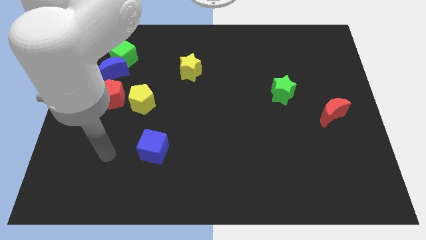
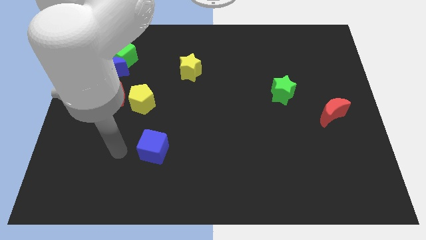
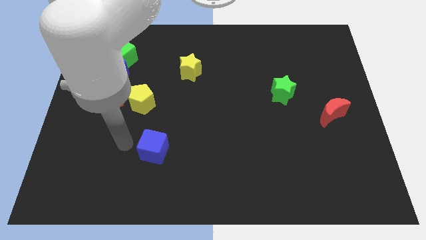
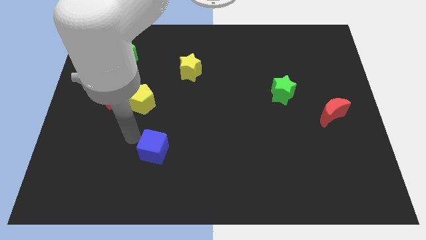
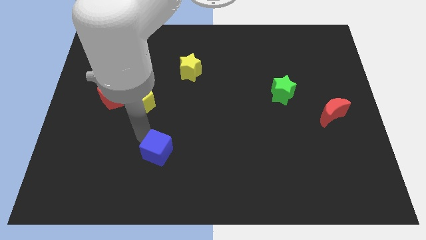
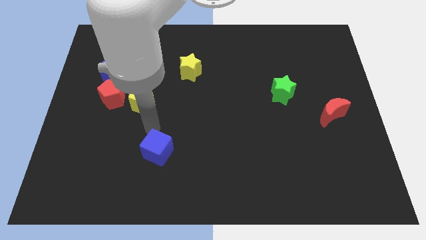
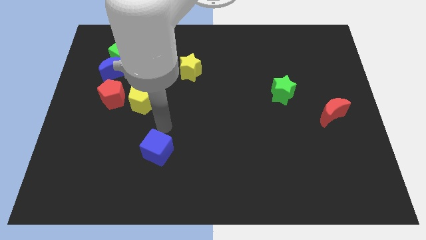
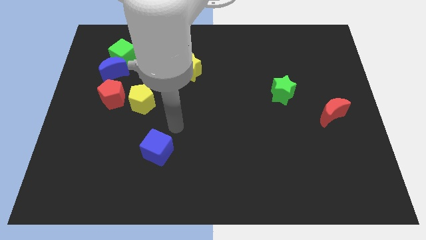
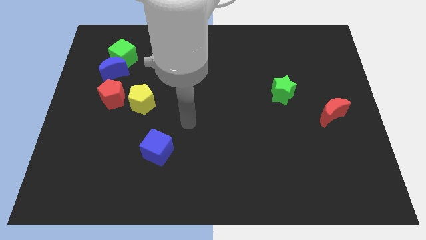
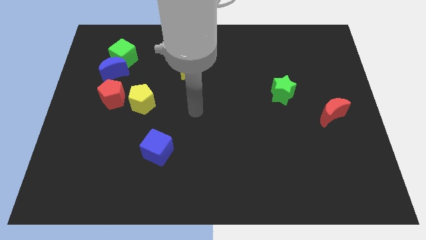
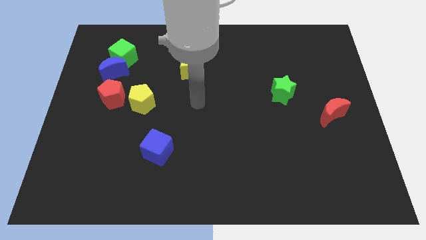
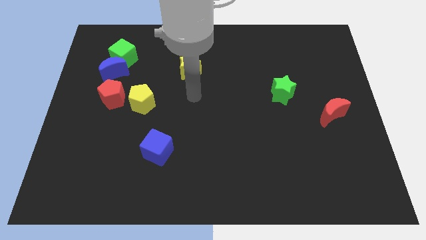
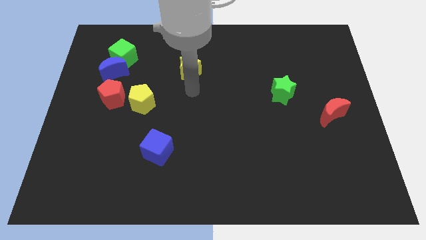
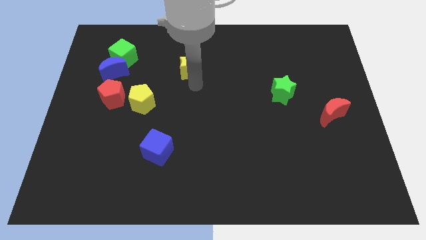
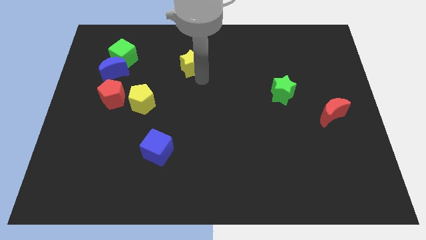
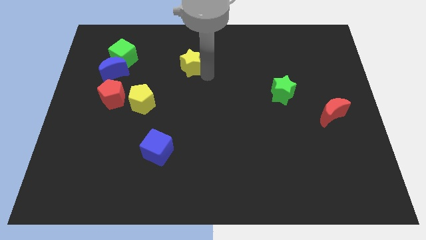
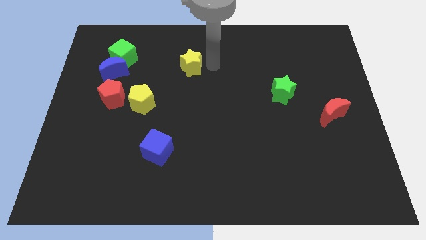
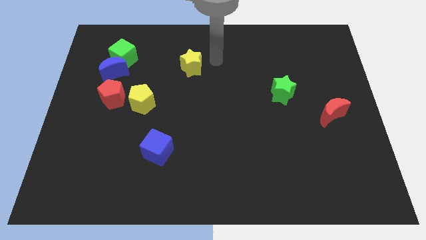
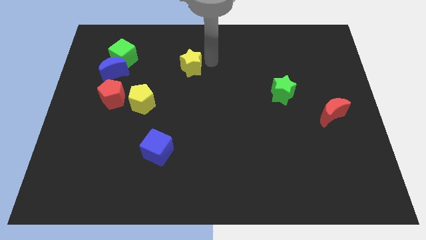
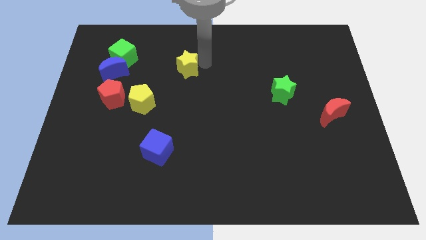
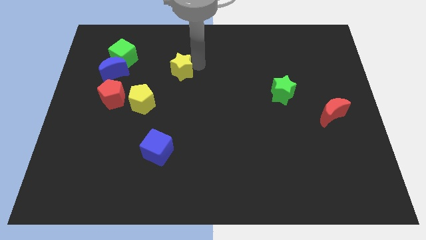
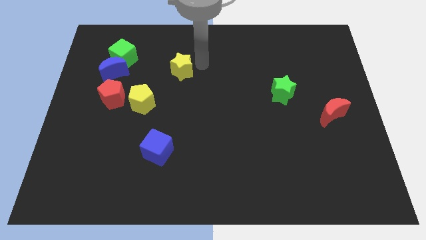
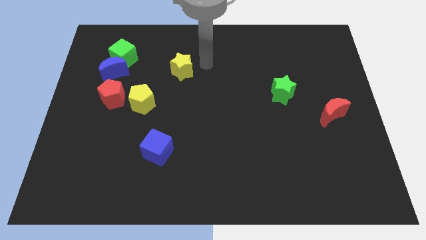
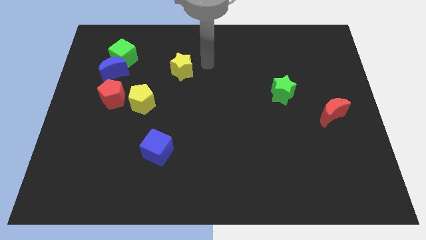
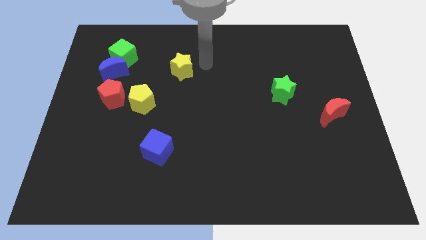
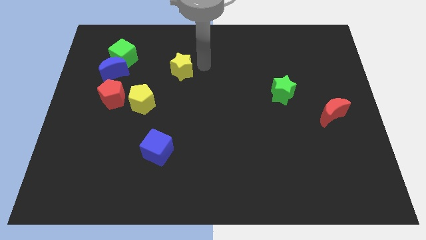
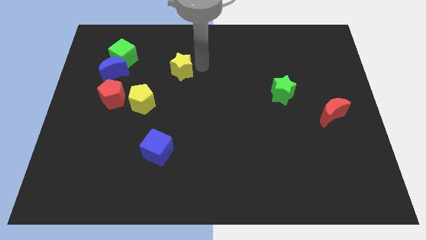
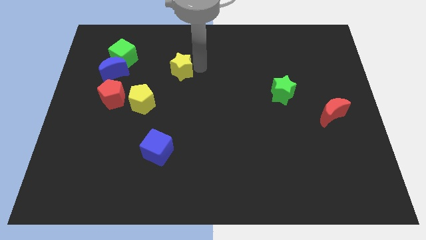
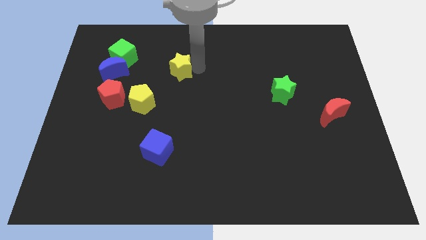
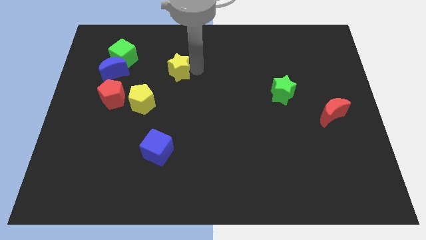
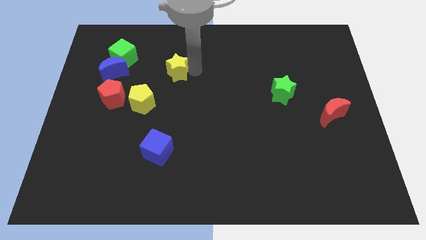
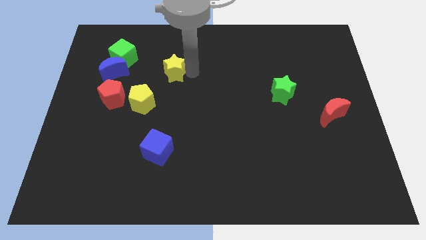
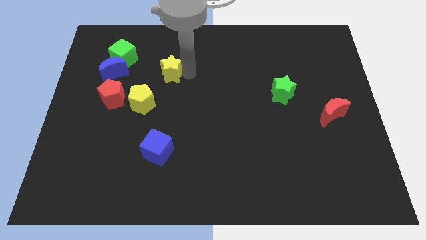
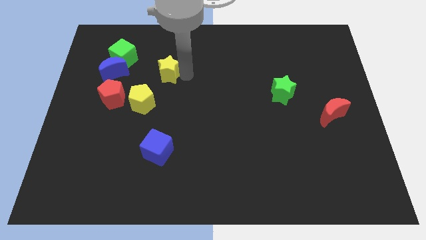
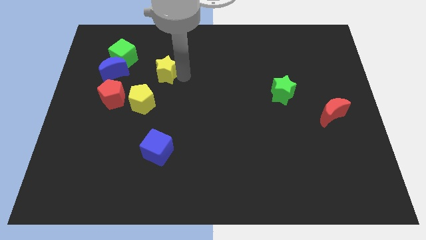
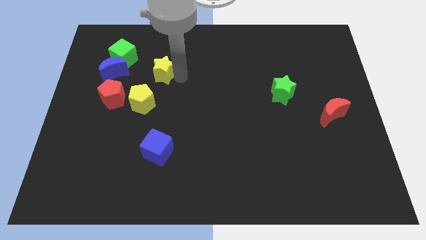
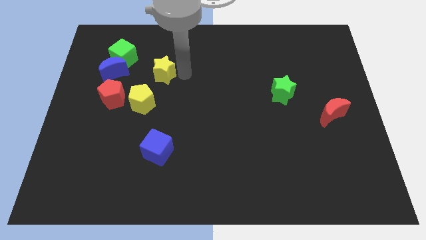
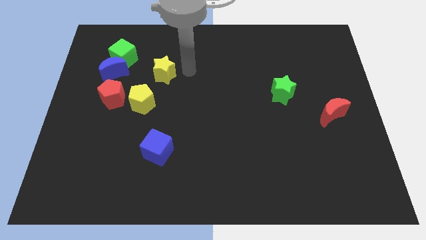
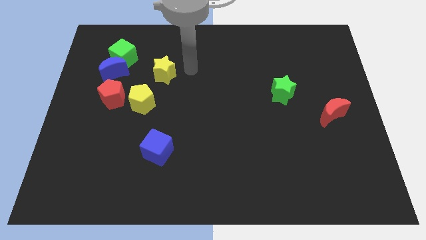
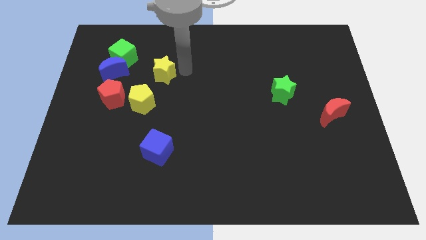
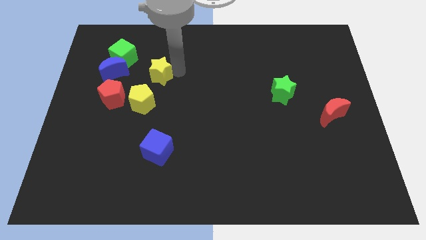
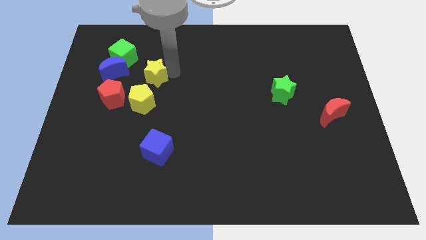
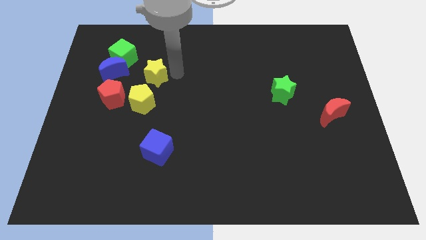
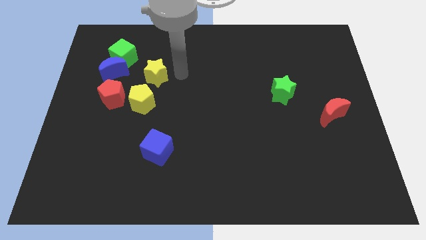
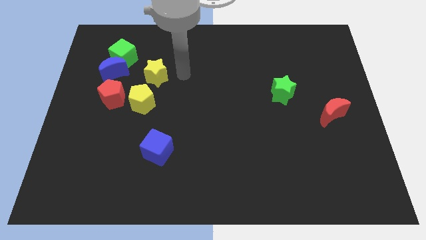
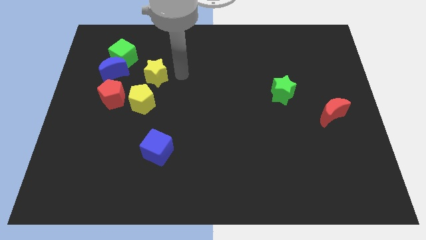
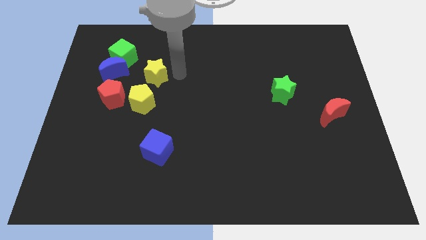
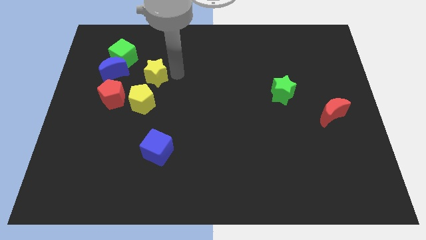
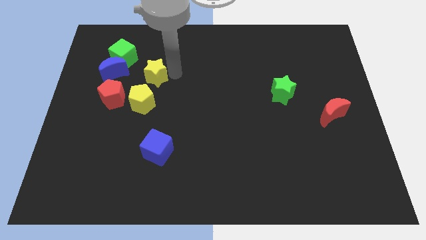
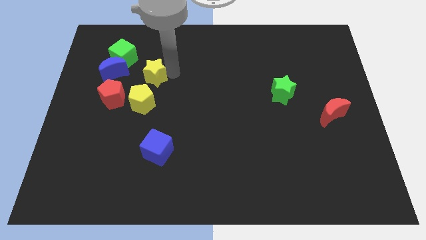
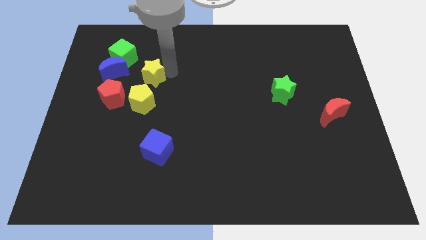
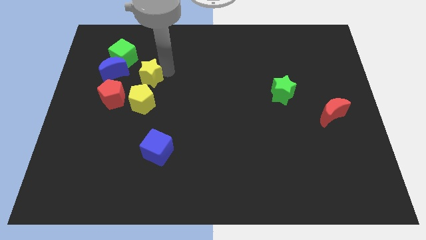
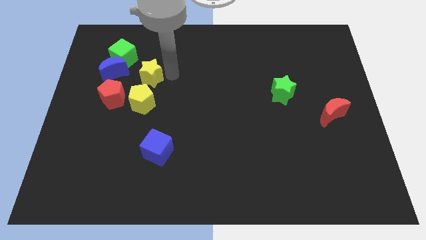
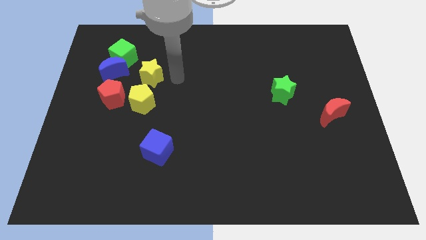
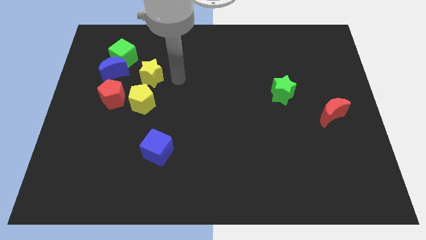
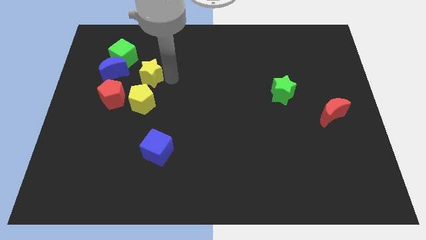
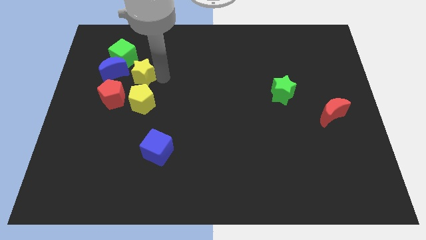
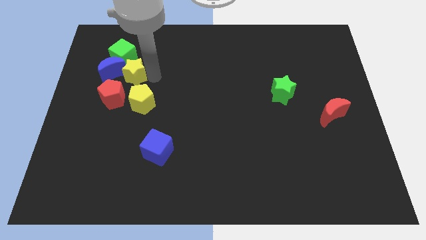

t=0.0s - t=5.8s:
slide the yellow star to the blue moon
